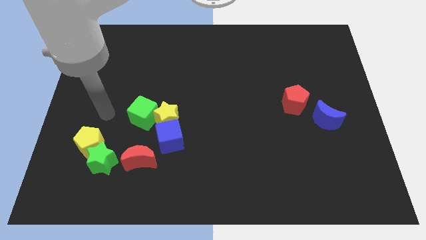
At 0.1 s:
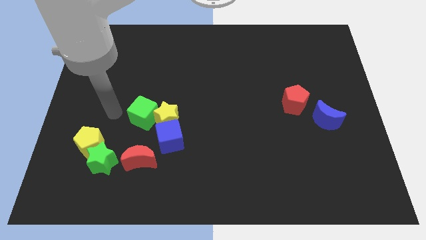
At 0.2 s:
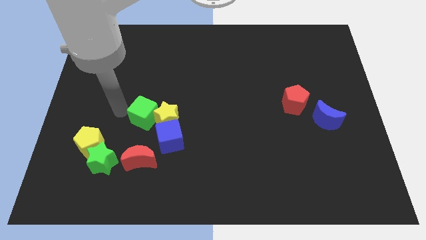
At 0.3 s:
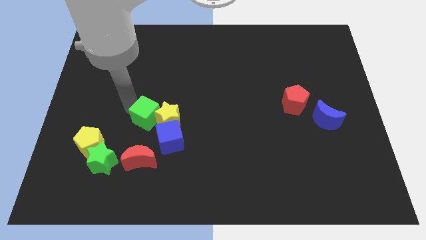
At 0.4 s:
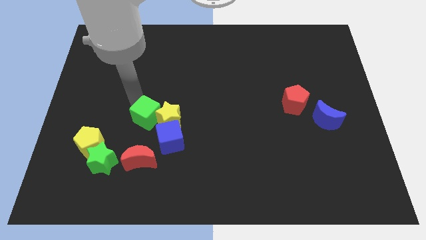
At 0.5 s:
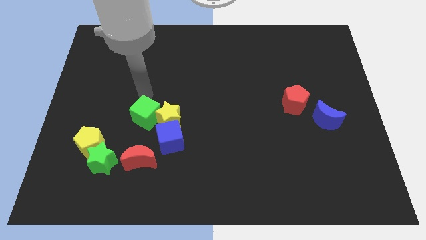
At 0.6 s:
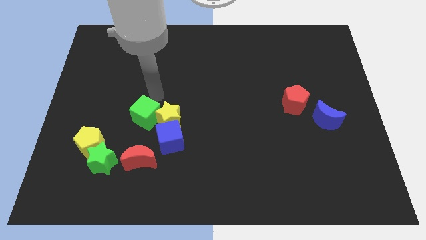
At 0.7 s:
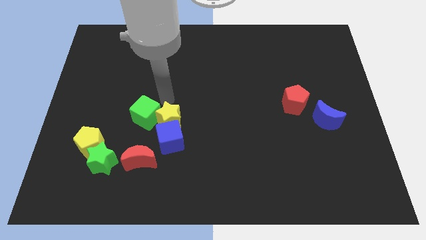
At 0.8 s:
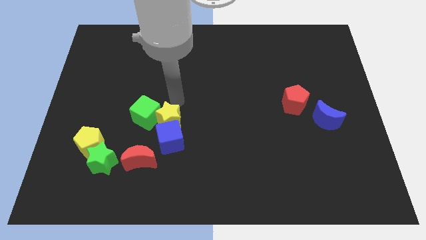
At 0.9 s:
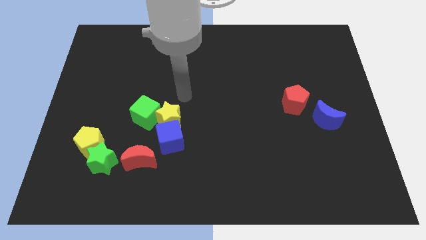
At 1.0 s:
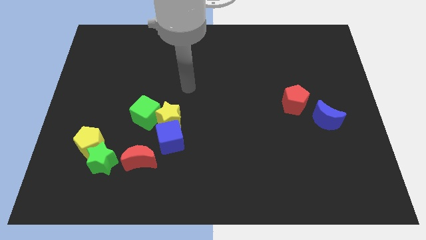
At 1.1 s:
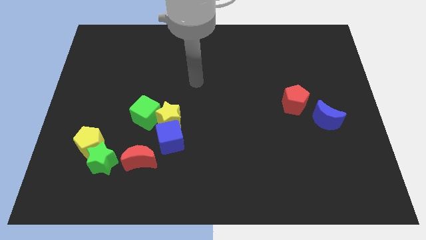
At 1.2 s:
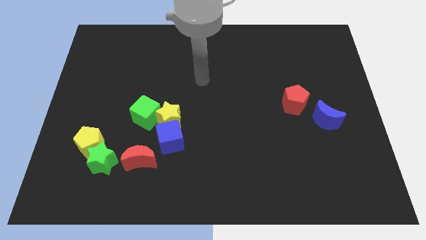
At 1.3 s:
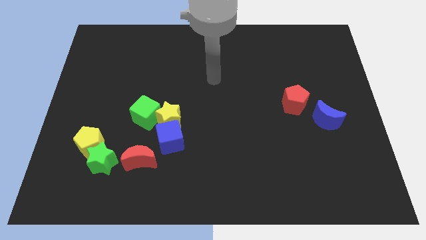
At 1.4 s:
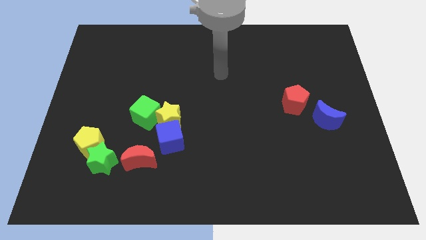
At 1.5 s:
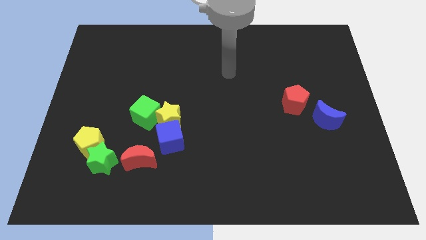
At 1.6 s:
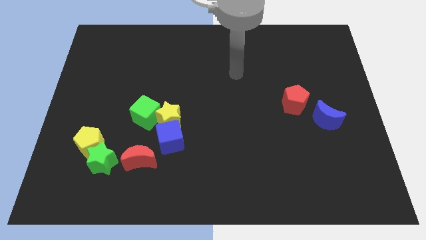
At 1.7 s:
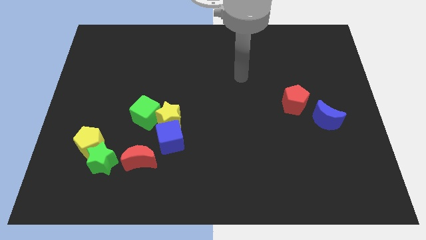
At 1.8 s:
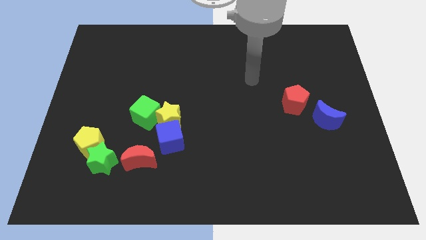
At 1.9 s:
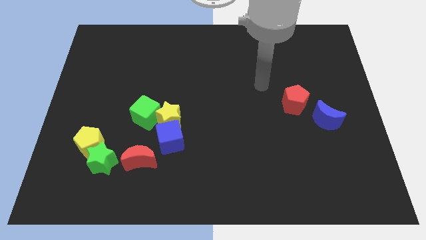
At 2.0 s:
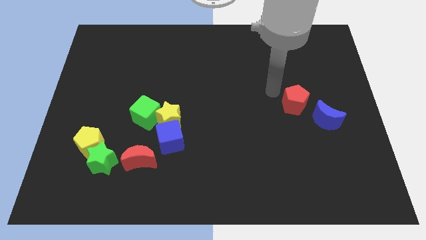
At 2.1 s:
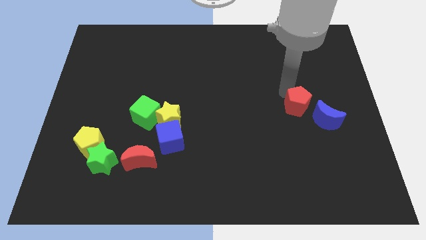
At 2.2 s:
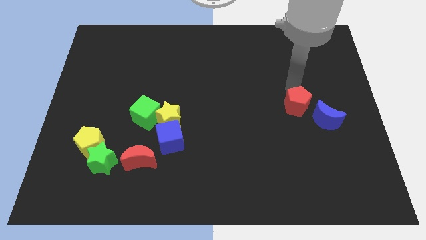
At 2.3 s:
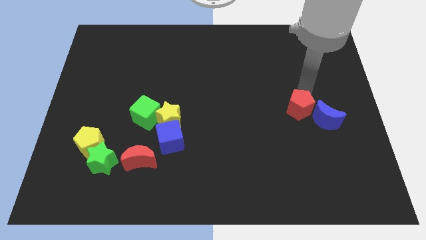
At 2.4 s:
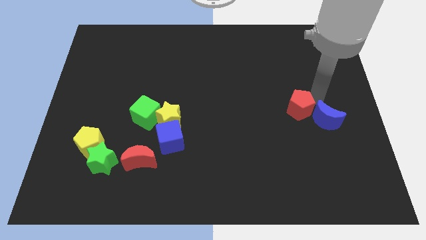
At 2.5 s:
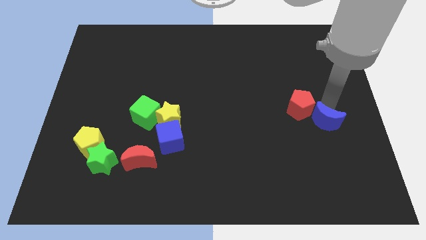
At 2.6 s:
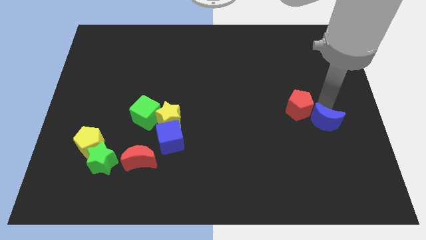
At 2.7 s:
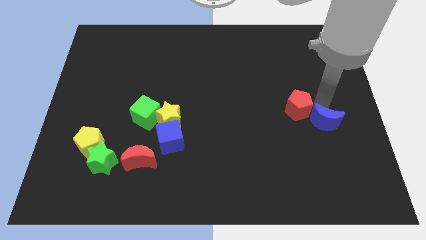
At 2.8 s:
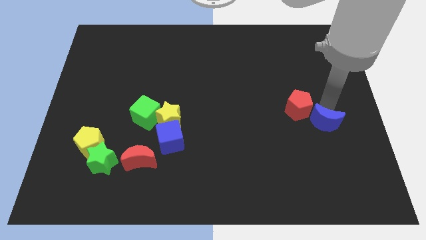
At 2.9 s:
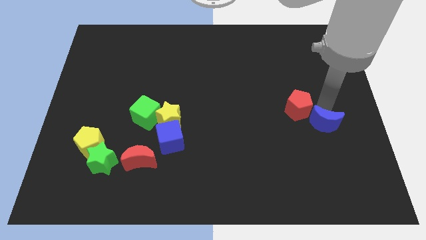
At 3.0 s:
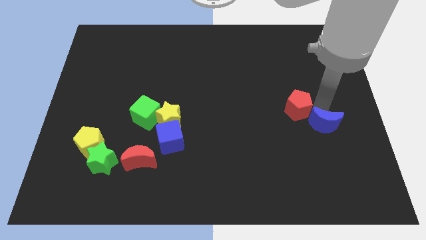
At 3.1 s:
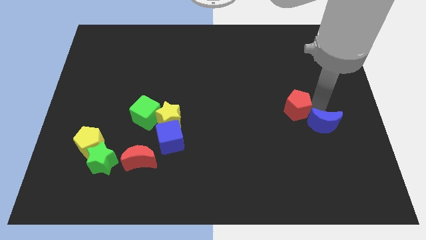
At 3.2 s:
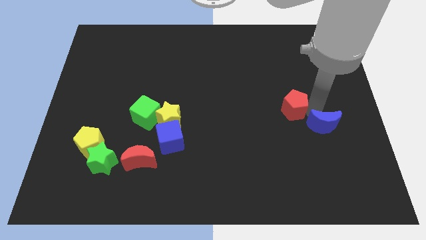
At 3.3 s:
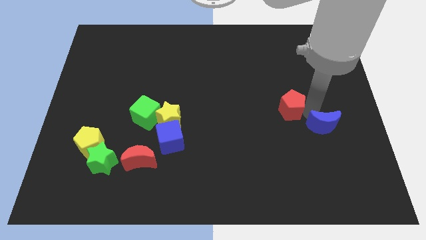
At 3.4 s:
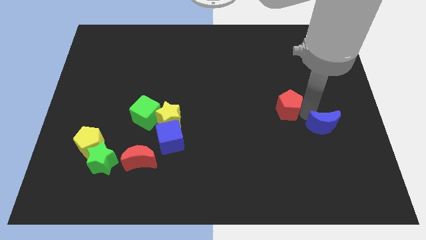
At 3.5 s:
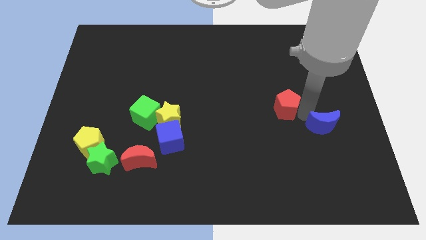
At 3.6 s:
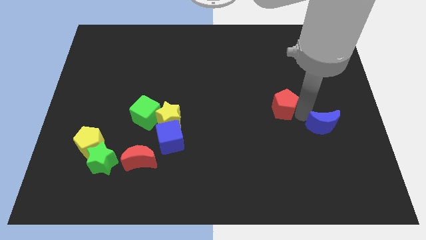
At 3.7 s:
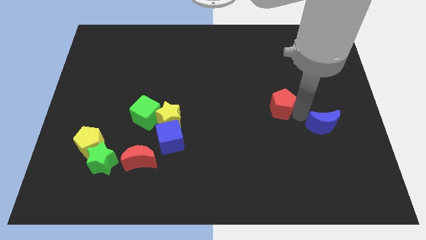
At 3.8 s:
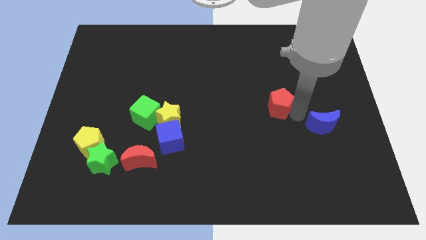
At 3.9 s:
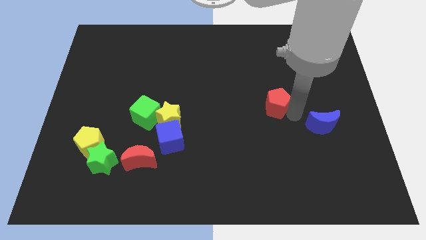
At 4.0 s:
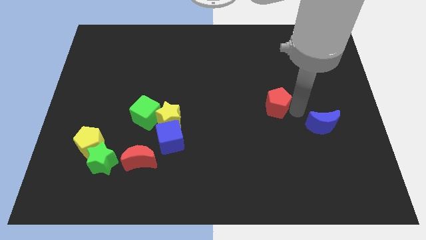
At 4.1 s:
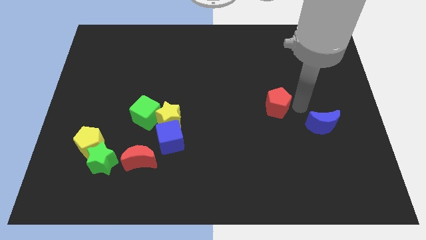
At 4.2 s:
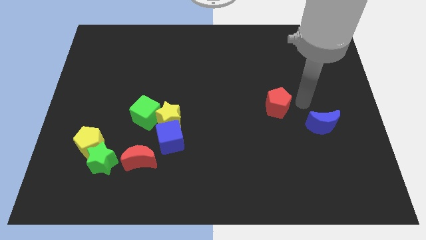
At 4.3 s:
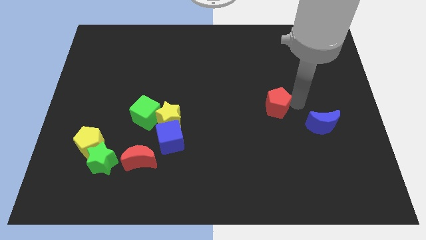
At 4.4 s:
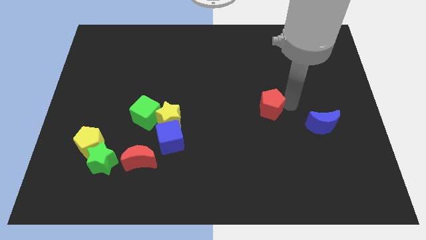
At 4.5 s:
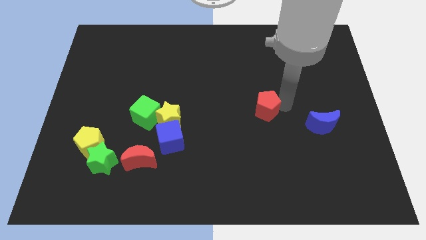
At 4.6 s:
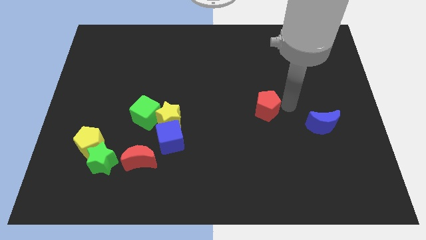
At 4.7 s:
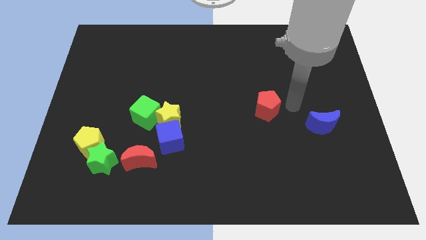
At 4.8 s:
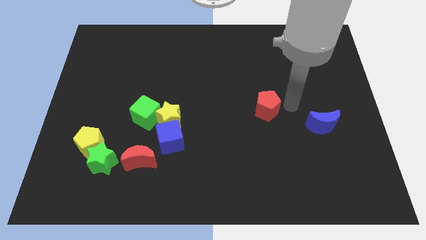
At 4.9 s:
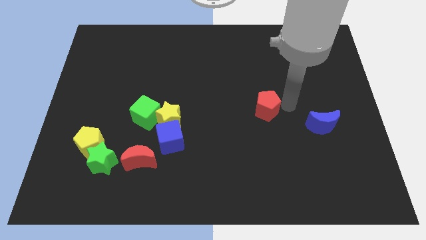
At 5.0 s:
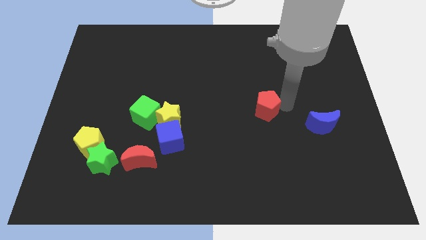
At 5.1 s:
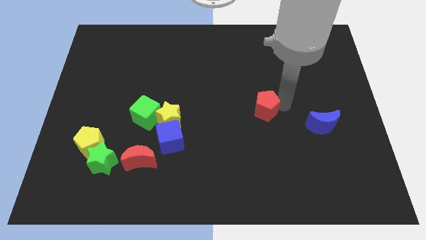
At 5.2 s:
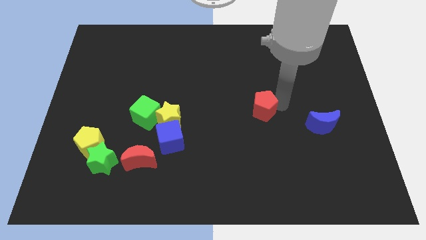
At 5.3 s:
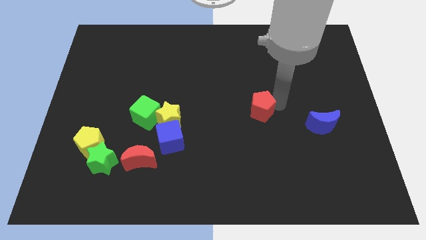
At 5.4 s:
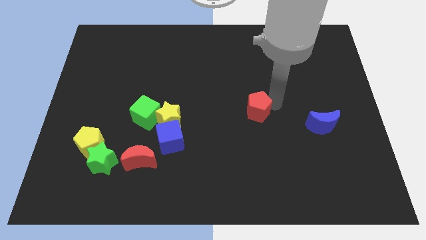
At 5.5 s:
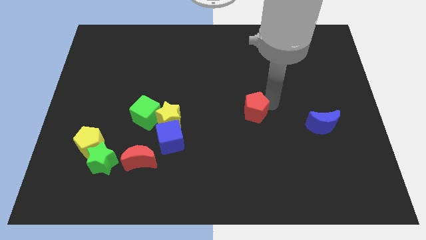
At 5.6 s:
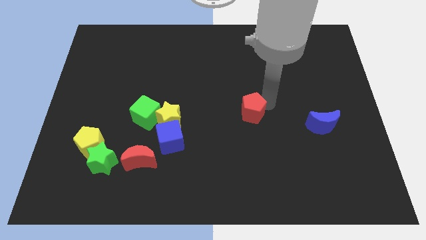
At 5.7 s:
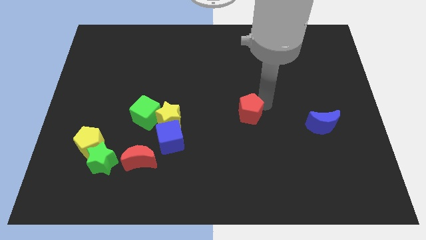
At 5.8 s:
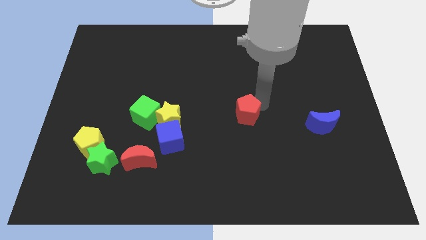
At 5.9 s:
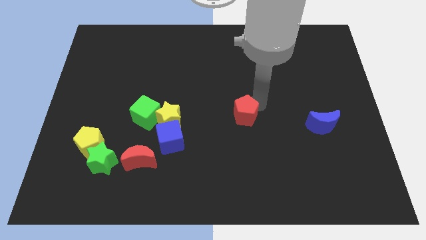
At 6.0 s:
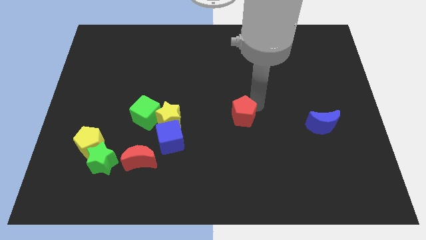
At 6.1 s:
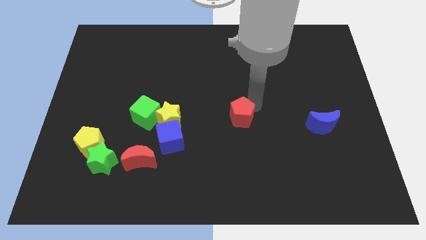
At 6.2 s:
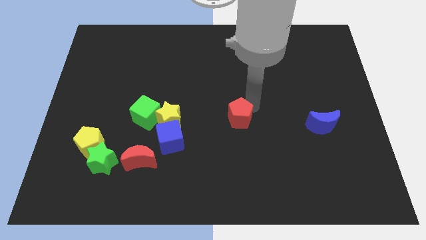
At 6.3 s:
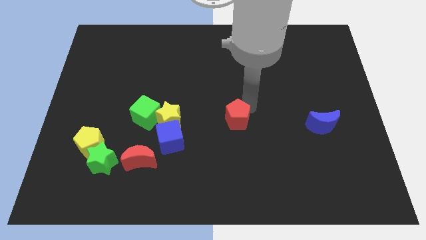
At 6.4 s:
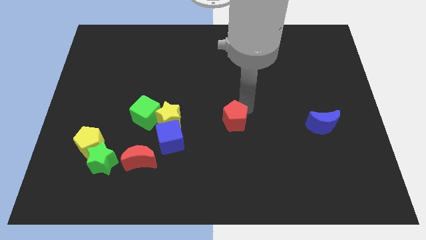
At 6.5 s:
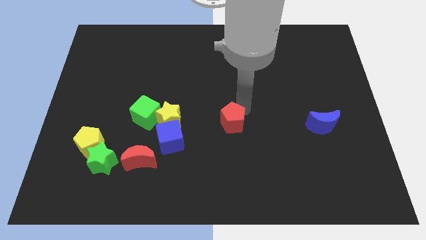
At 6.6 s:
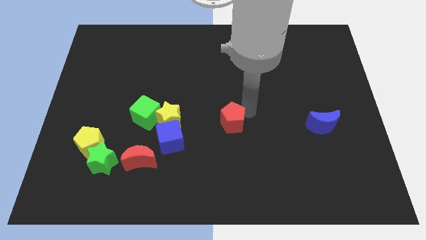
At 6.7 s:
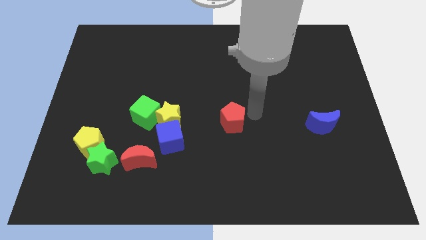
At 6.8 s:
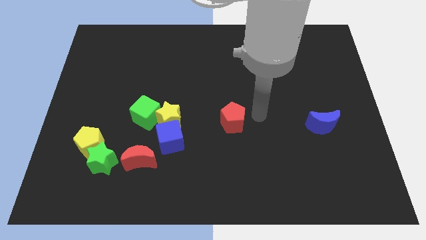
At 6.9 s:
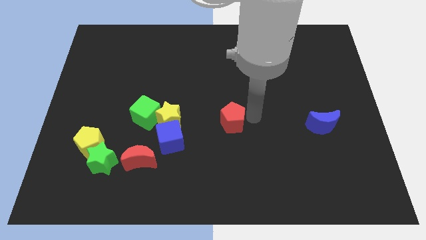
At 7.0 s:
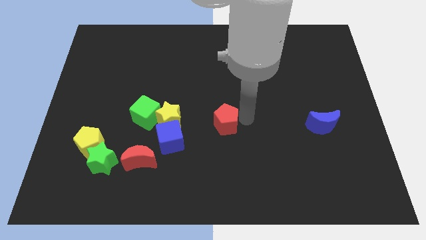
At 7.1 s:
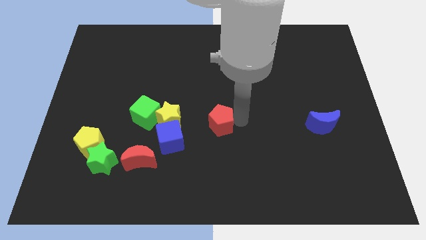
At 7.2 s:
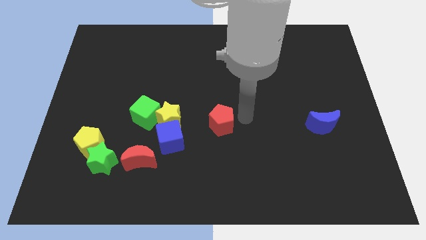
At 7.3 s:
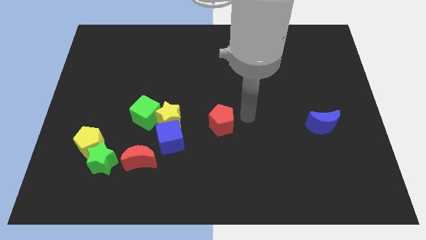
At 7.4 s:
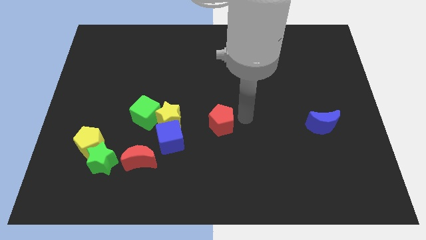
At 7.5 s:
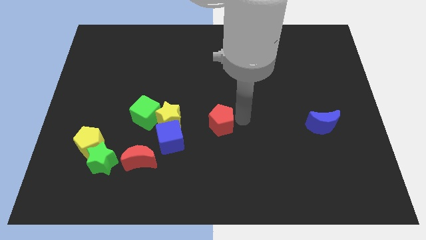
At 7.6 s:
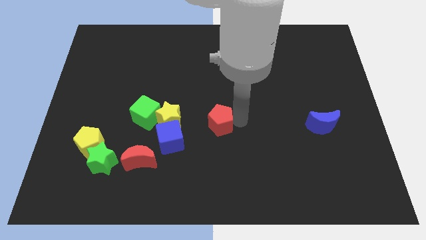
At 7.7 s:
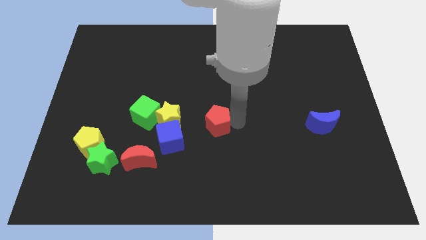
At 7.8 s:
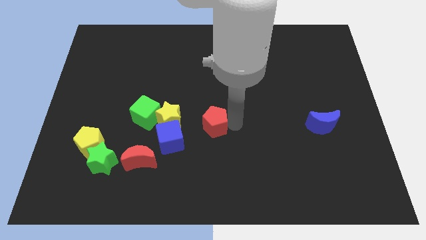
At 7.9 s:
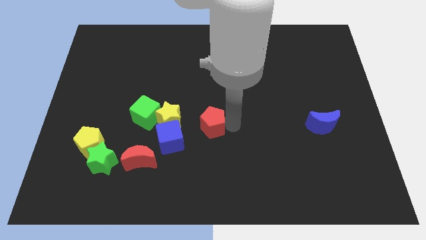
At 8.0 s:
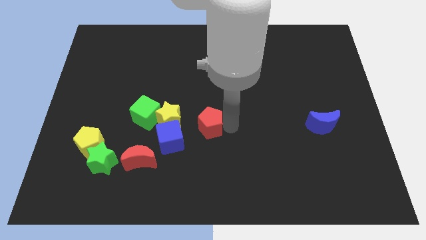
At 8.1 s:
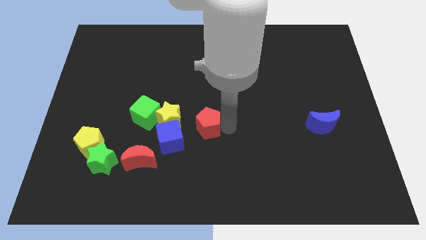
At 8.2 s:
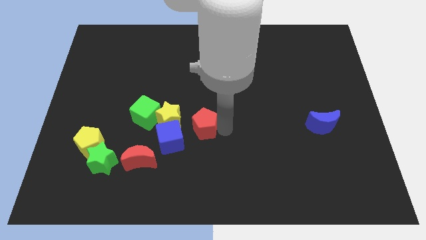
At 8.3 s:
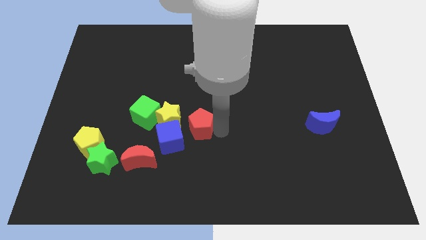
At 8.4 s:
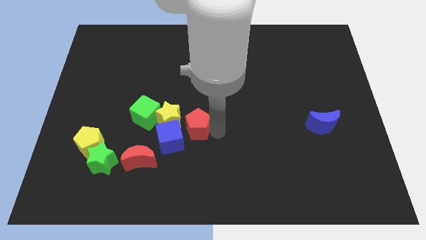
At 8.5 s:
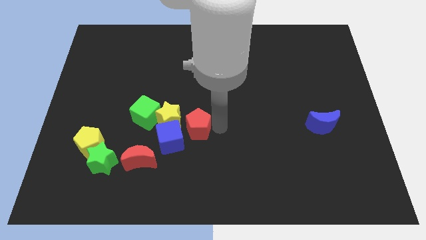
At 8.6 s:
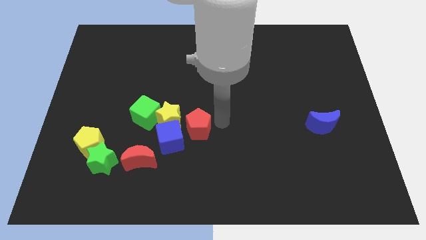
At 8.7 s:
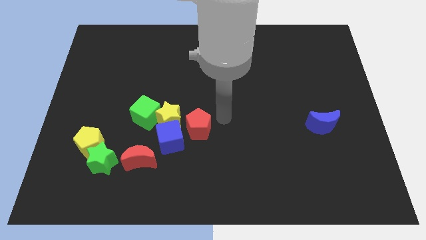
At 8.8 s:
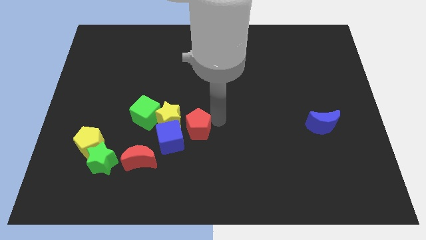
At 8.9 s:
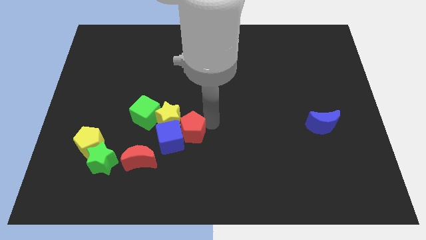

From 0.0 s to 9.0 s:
put the red pentagon close to the blue cube
